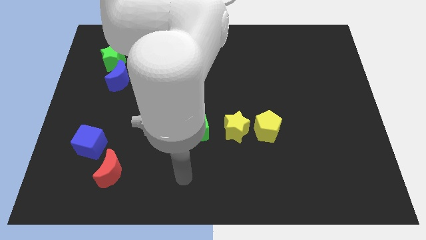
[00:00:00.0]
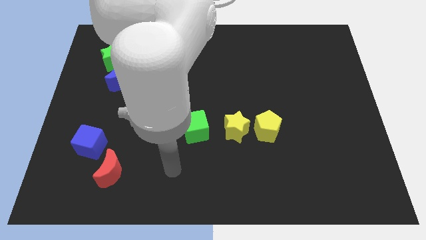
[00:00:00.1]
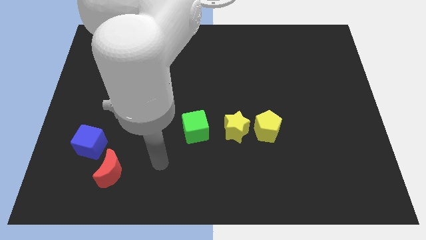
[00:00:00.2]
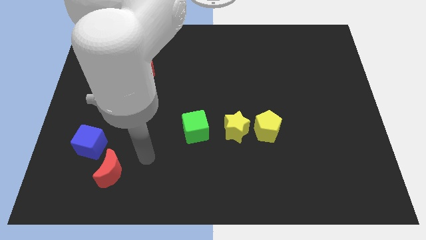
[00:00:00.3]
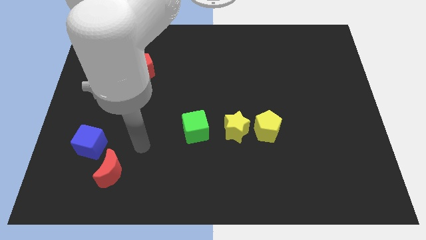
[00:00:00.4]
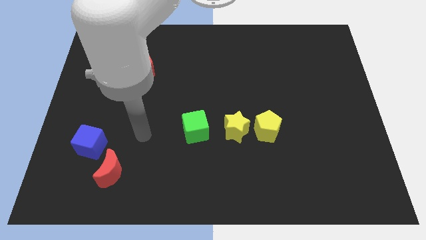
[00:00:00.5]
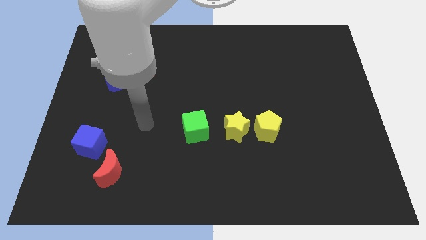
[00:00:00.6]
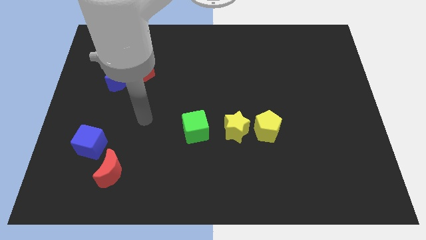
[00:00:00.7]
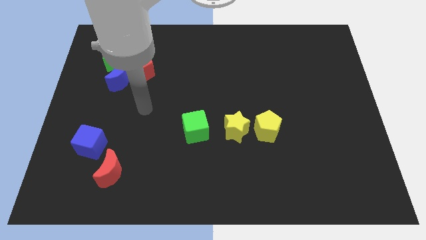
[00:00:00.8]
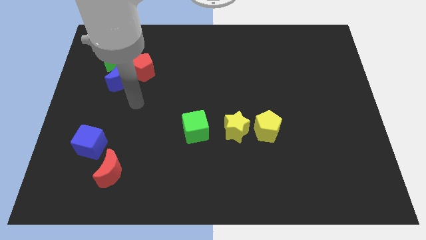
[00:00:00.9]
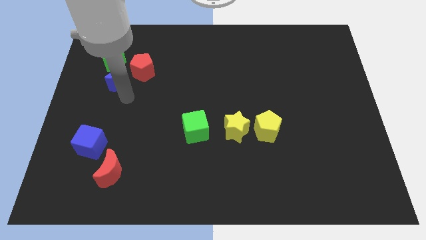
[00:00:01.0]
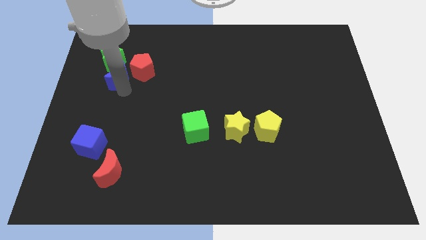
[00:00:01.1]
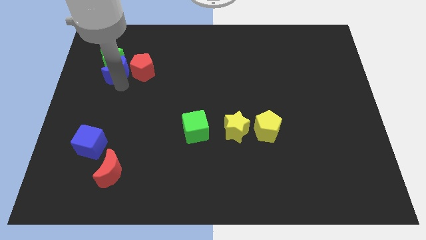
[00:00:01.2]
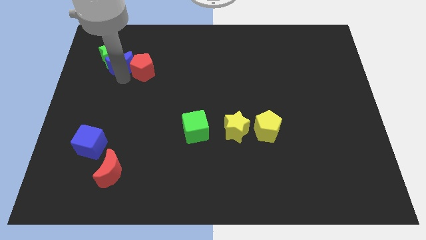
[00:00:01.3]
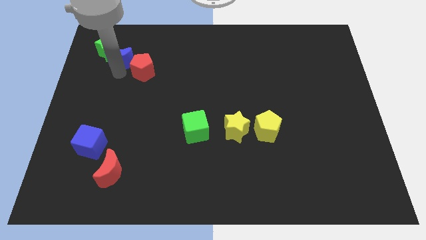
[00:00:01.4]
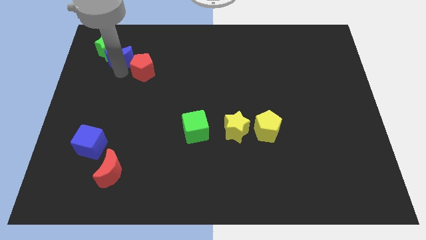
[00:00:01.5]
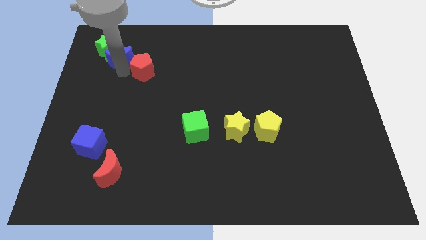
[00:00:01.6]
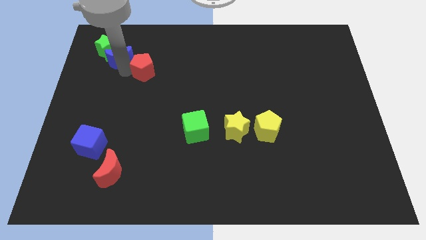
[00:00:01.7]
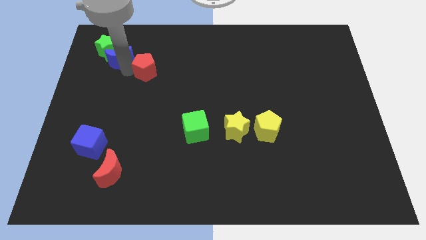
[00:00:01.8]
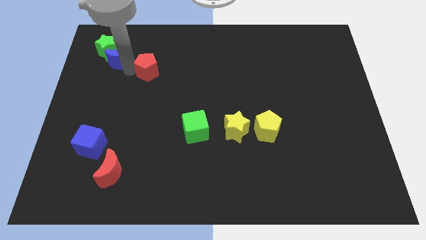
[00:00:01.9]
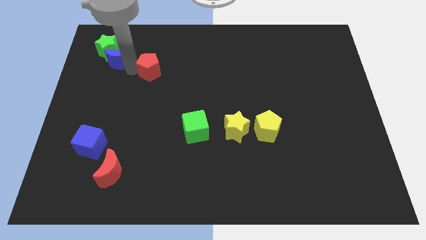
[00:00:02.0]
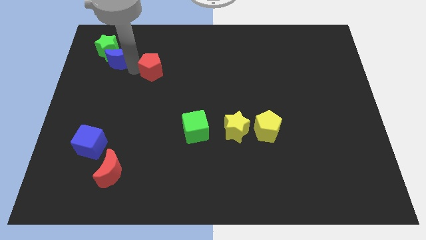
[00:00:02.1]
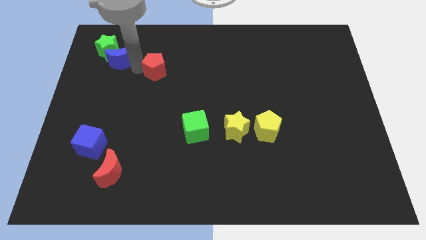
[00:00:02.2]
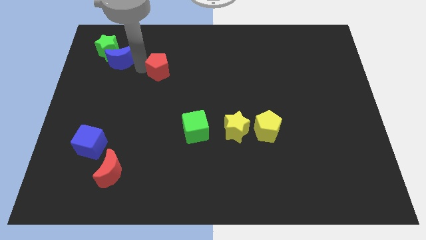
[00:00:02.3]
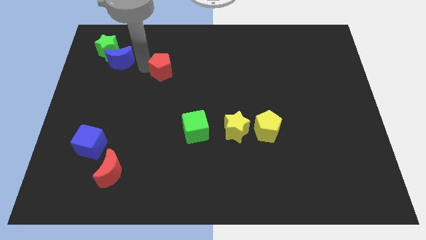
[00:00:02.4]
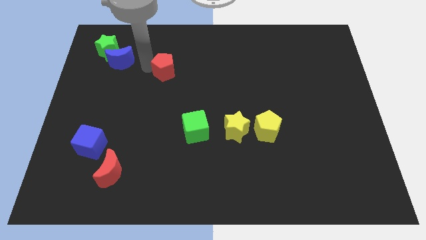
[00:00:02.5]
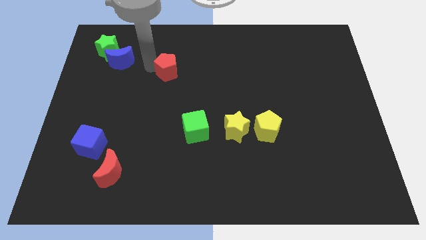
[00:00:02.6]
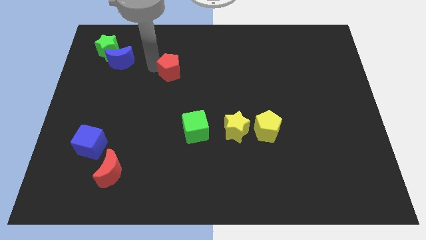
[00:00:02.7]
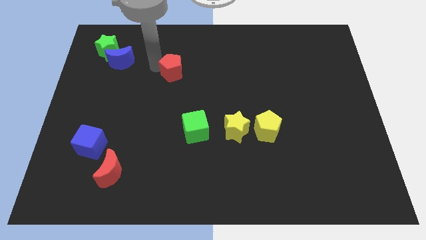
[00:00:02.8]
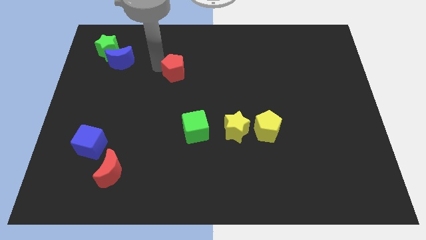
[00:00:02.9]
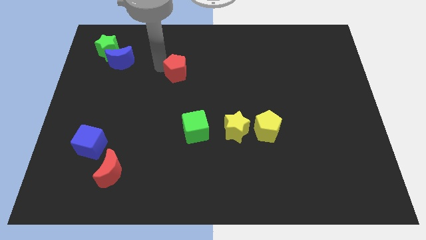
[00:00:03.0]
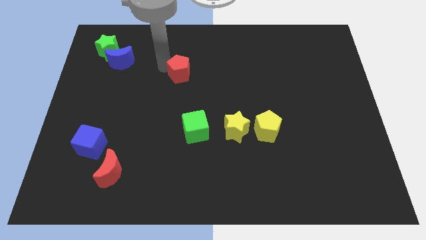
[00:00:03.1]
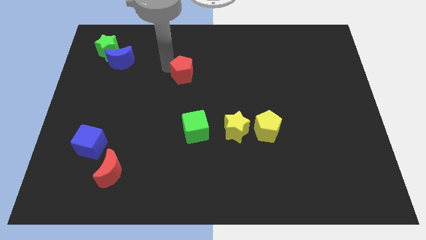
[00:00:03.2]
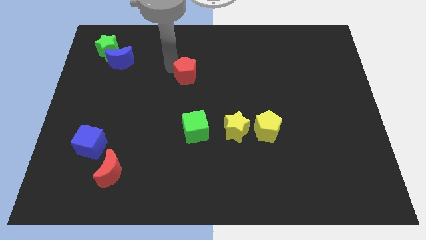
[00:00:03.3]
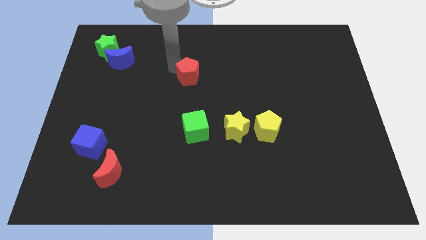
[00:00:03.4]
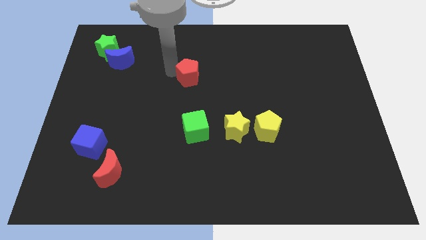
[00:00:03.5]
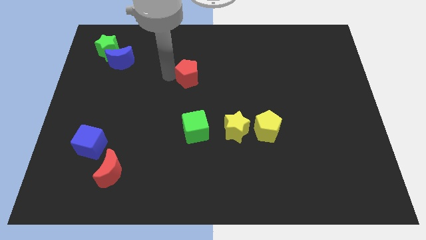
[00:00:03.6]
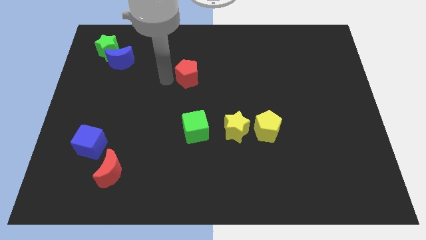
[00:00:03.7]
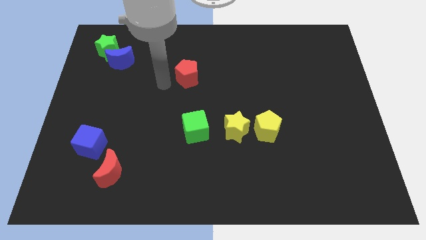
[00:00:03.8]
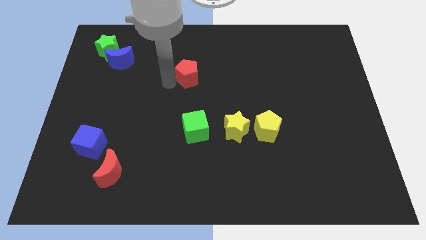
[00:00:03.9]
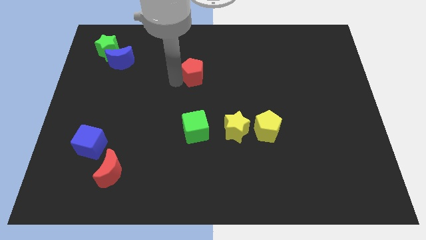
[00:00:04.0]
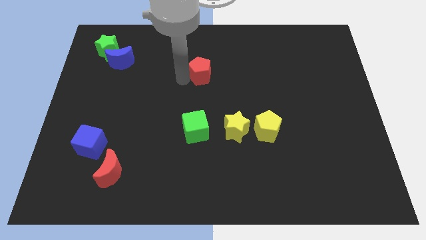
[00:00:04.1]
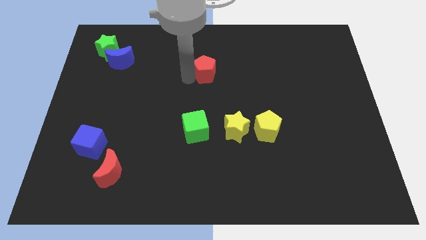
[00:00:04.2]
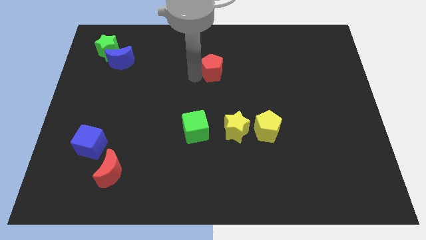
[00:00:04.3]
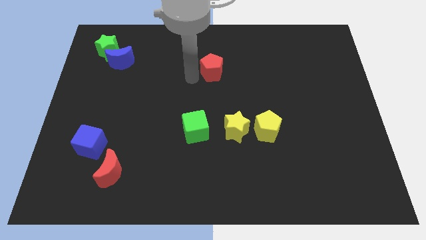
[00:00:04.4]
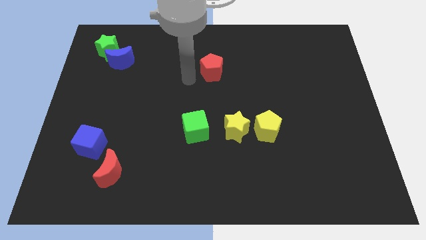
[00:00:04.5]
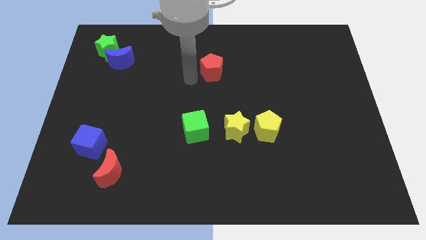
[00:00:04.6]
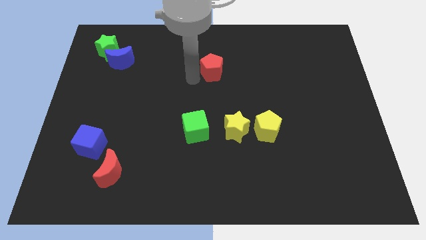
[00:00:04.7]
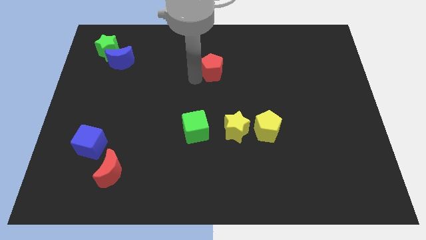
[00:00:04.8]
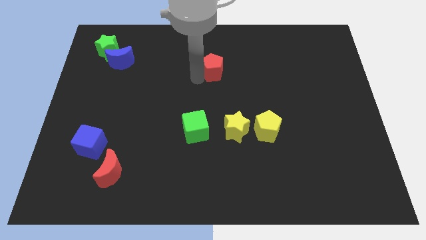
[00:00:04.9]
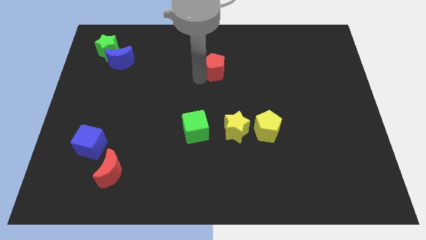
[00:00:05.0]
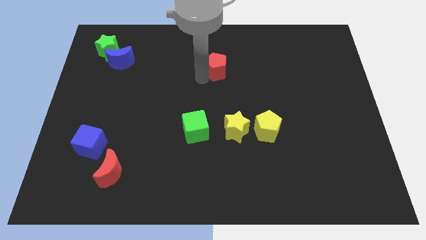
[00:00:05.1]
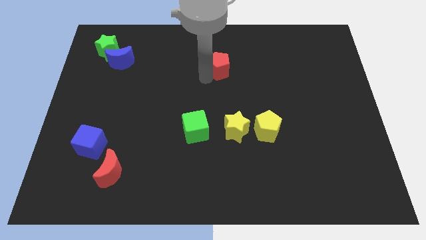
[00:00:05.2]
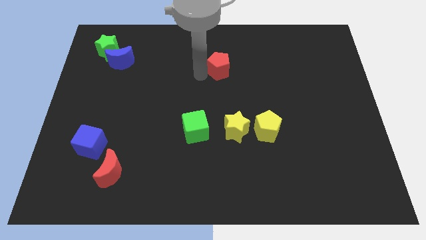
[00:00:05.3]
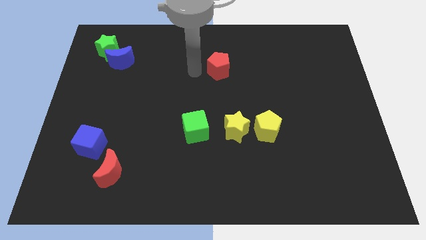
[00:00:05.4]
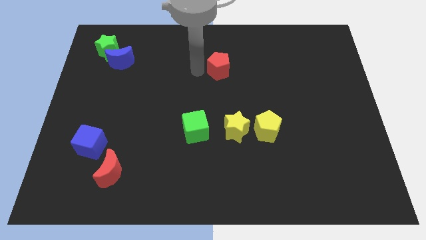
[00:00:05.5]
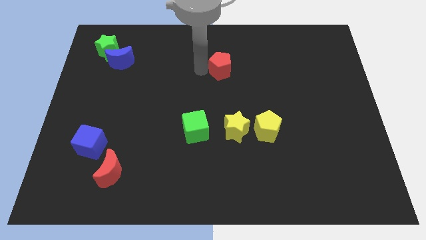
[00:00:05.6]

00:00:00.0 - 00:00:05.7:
move the red pentagon to the right

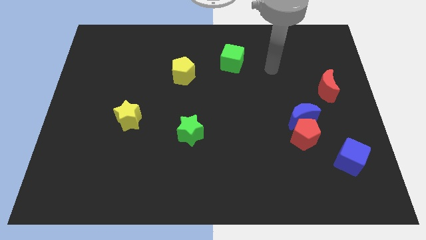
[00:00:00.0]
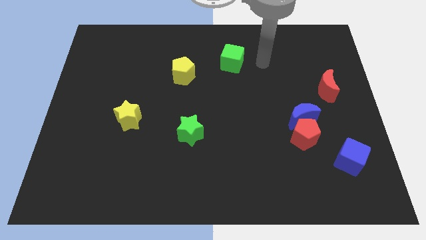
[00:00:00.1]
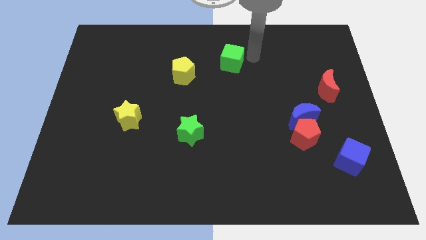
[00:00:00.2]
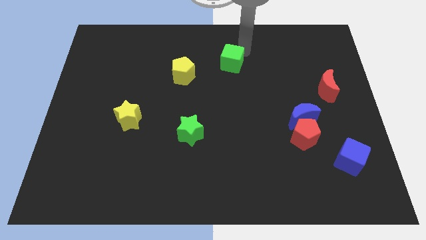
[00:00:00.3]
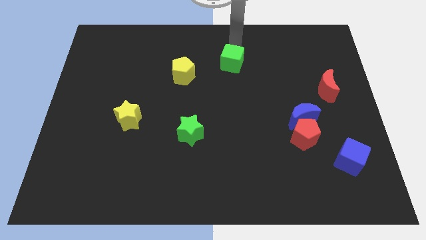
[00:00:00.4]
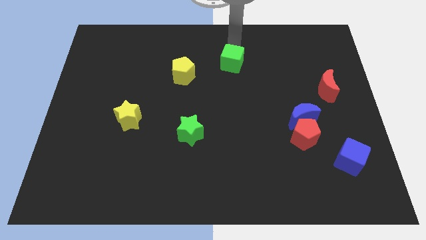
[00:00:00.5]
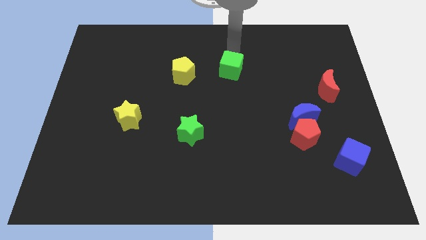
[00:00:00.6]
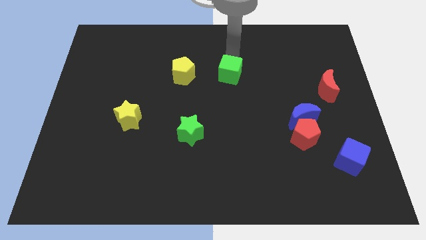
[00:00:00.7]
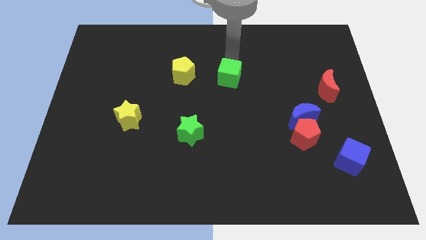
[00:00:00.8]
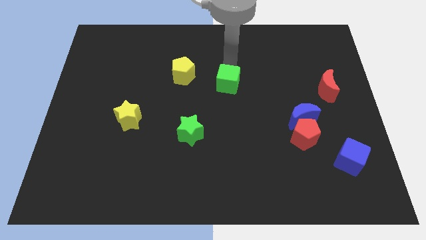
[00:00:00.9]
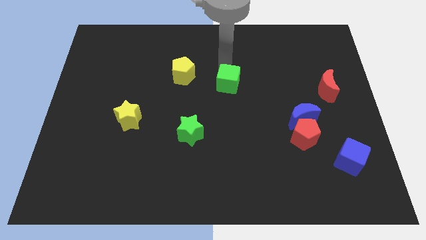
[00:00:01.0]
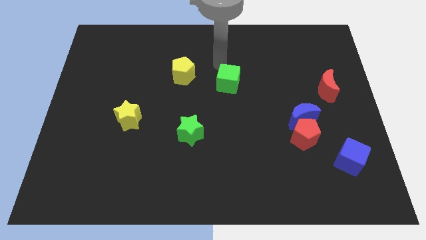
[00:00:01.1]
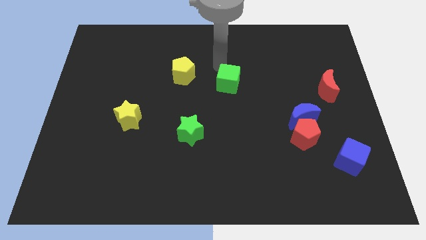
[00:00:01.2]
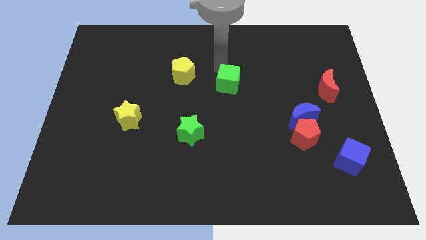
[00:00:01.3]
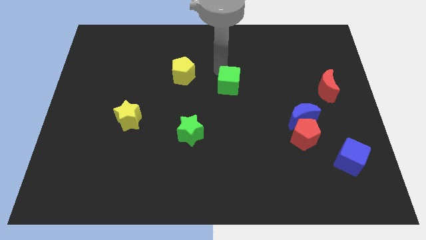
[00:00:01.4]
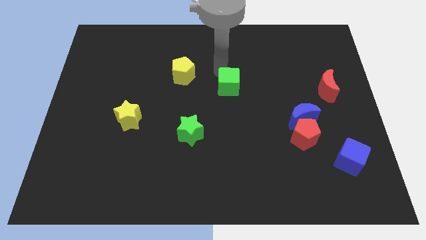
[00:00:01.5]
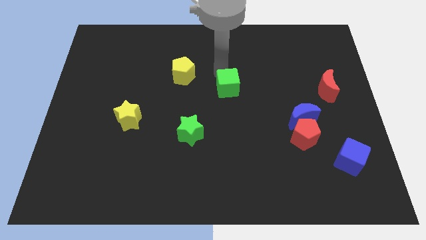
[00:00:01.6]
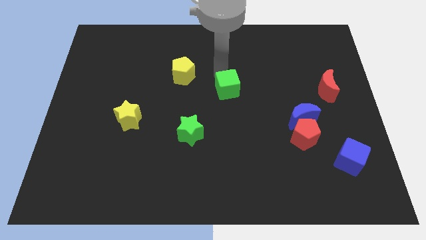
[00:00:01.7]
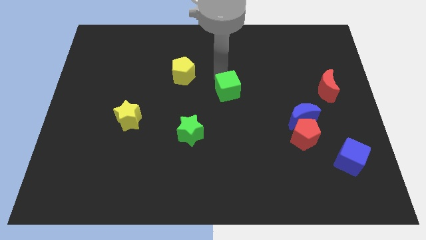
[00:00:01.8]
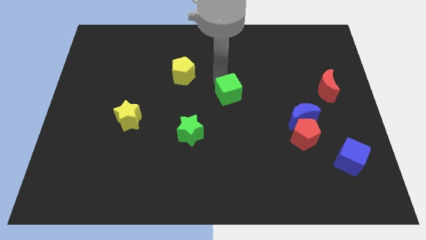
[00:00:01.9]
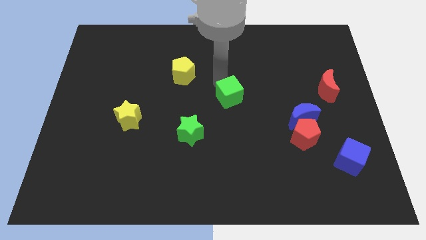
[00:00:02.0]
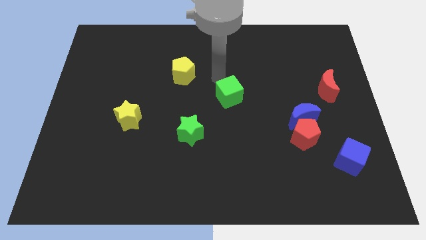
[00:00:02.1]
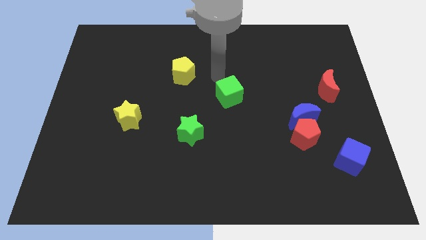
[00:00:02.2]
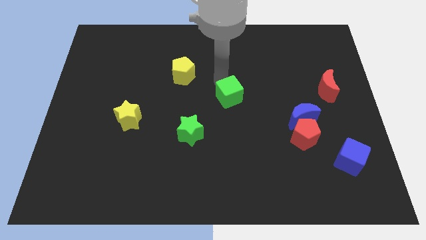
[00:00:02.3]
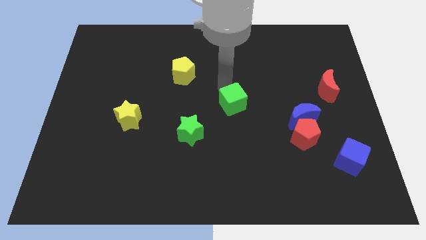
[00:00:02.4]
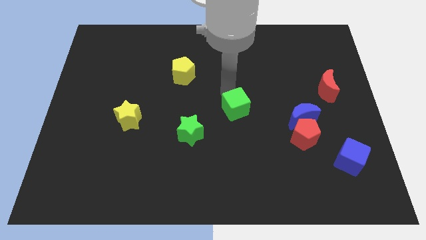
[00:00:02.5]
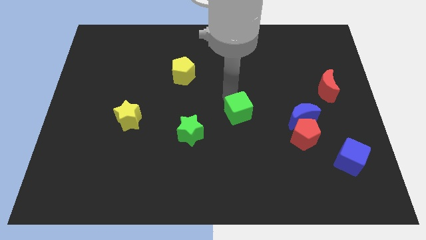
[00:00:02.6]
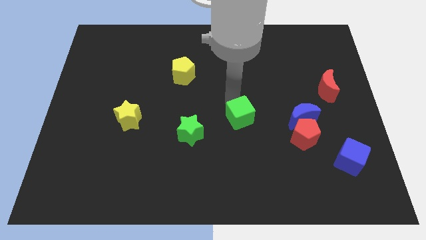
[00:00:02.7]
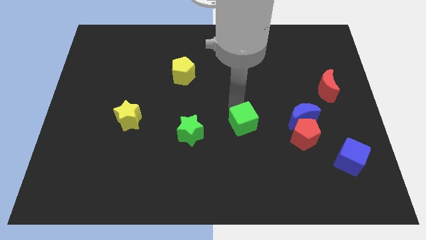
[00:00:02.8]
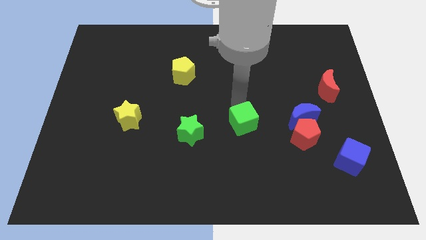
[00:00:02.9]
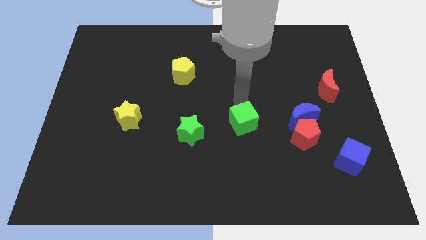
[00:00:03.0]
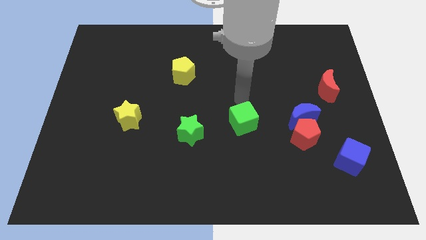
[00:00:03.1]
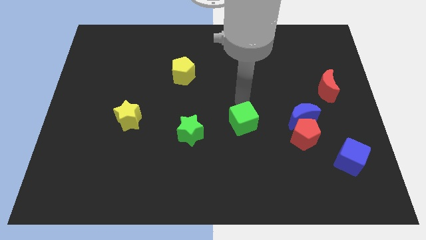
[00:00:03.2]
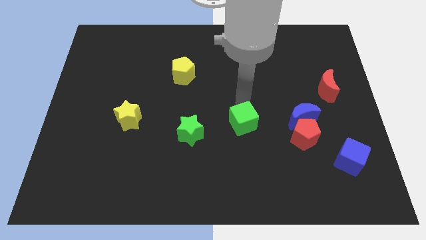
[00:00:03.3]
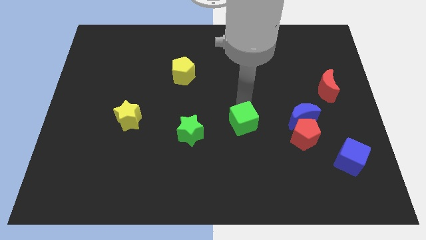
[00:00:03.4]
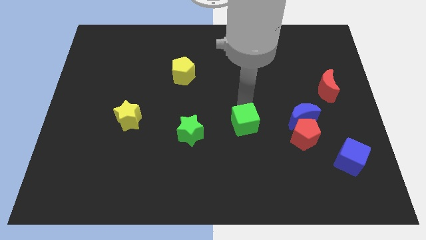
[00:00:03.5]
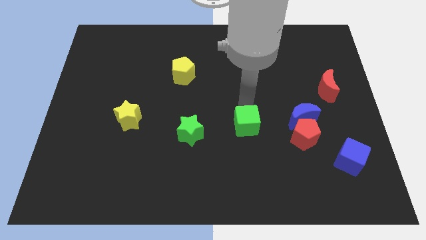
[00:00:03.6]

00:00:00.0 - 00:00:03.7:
push the green cube down
